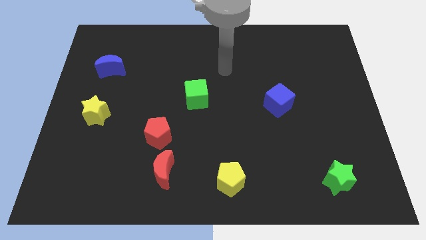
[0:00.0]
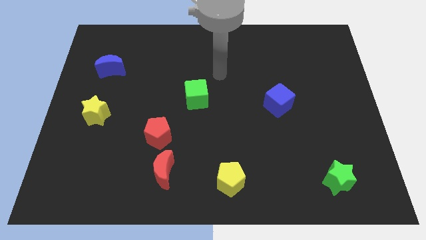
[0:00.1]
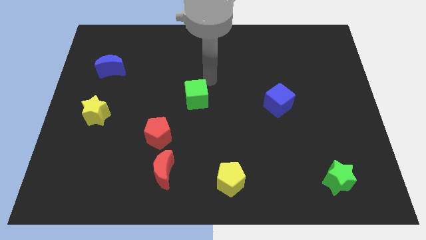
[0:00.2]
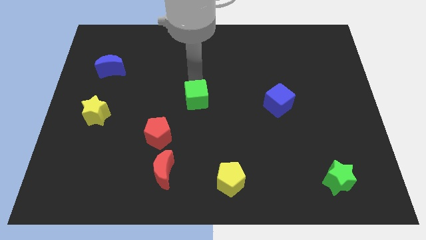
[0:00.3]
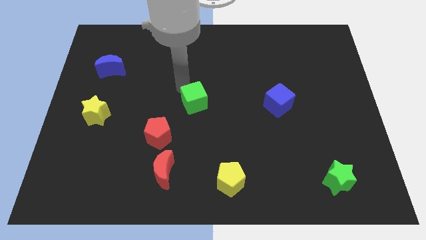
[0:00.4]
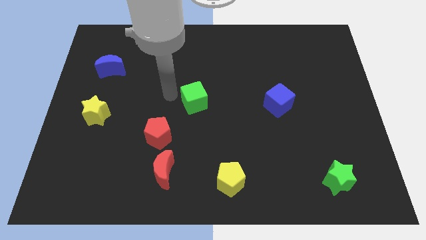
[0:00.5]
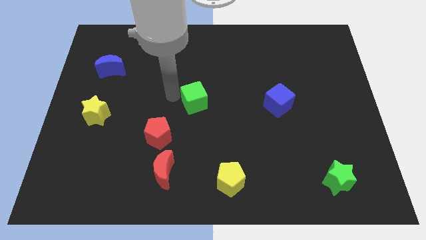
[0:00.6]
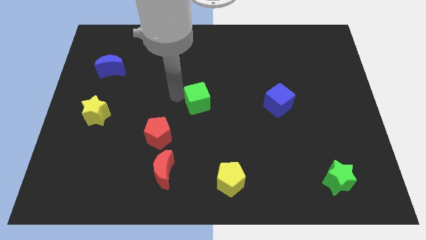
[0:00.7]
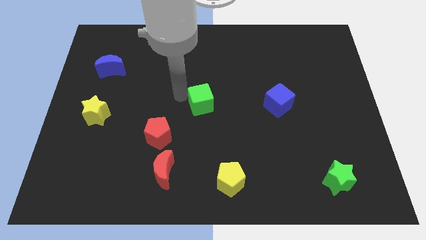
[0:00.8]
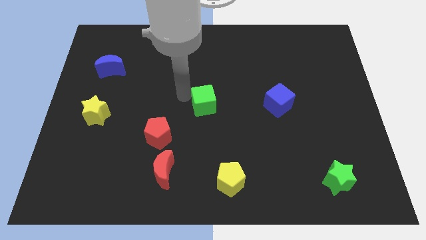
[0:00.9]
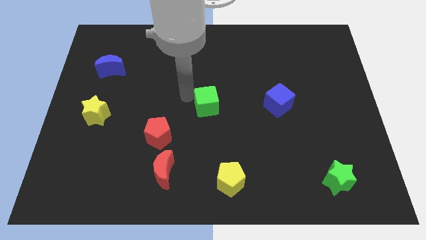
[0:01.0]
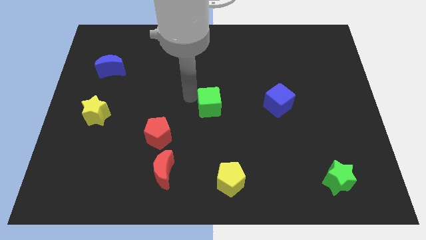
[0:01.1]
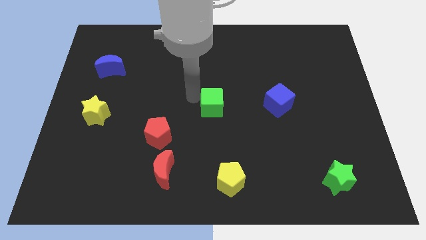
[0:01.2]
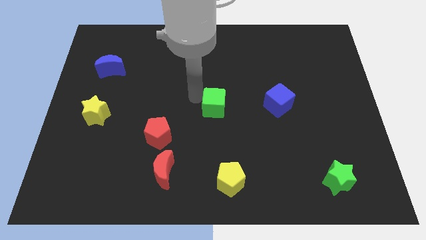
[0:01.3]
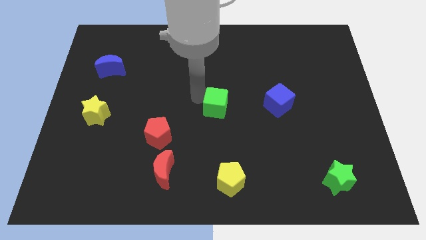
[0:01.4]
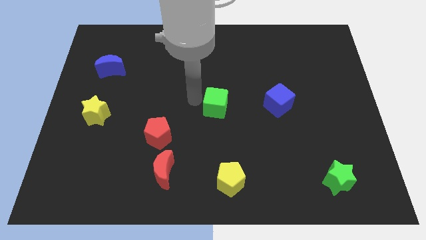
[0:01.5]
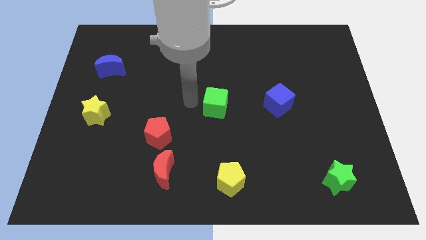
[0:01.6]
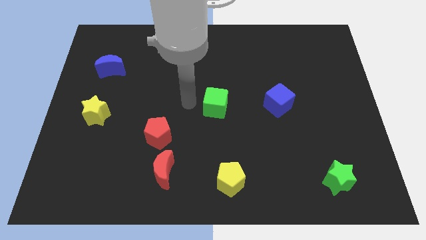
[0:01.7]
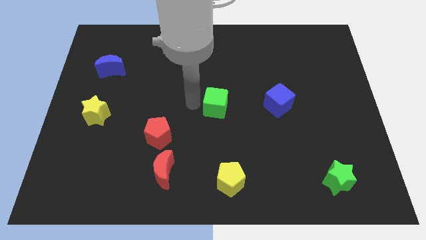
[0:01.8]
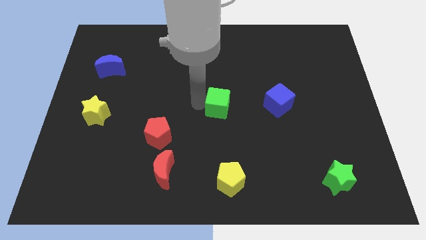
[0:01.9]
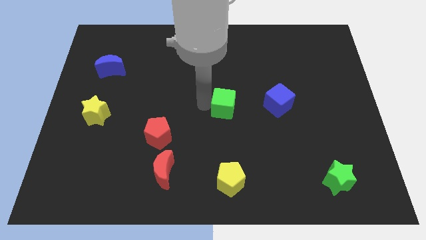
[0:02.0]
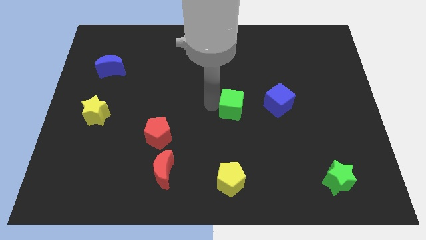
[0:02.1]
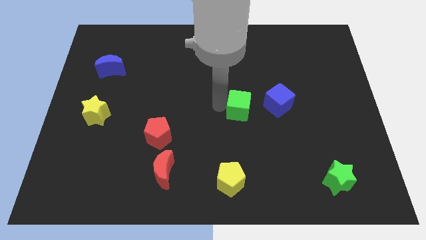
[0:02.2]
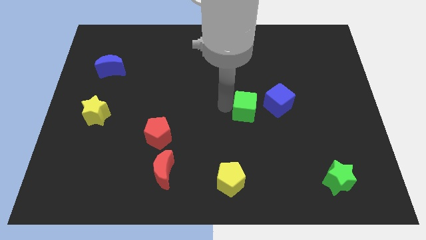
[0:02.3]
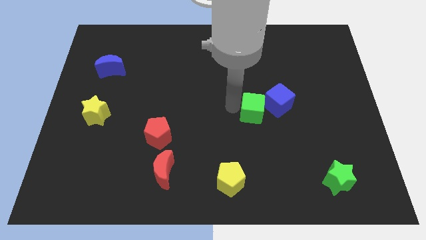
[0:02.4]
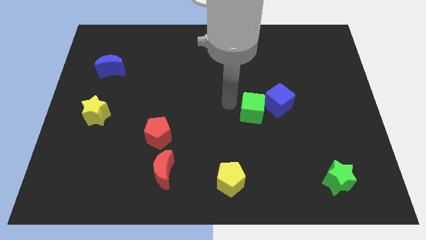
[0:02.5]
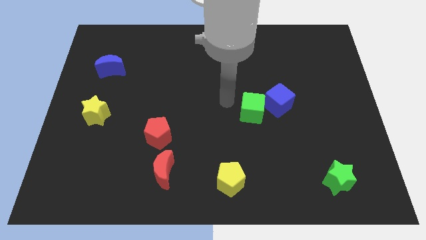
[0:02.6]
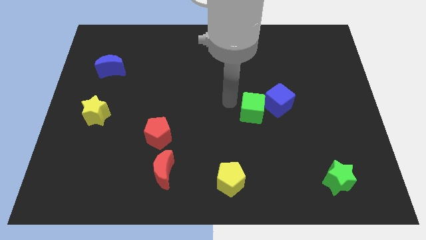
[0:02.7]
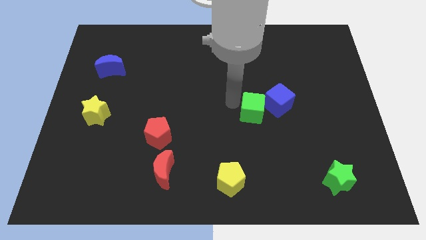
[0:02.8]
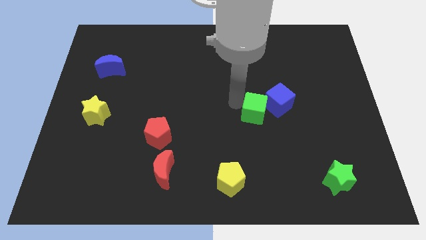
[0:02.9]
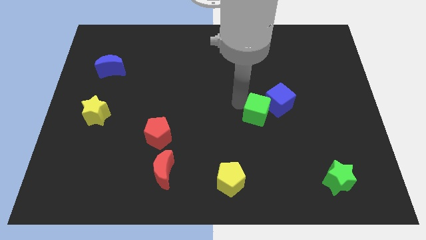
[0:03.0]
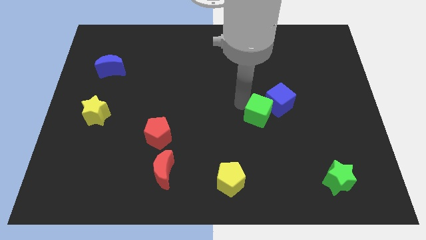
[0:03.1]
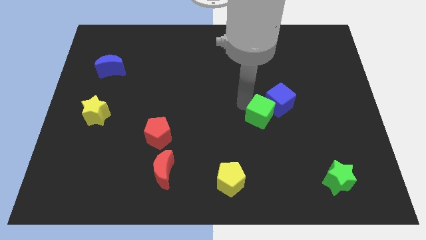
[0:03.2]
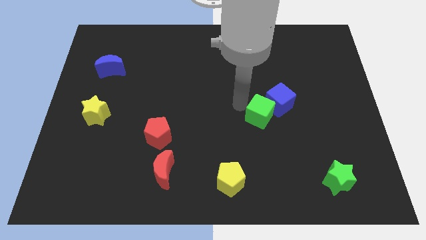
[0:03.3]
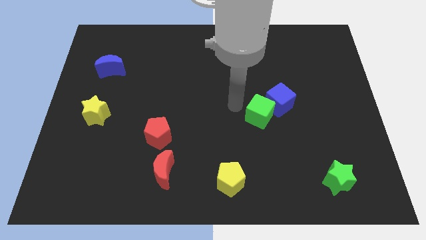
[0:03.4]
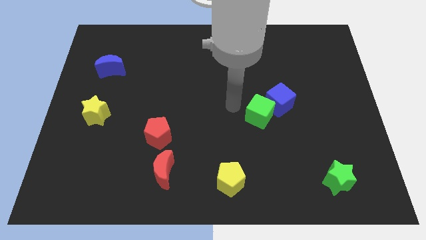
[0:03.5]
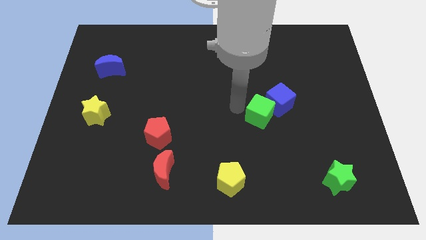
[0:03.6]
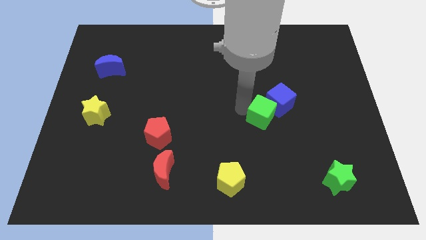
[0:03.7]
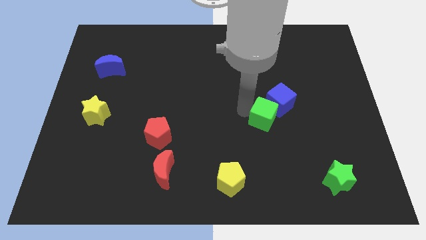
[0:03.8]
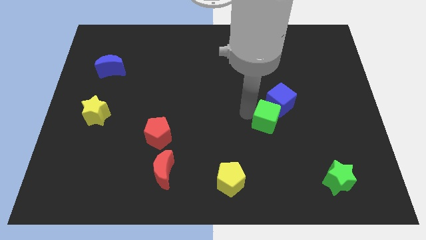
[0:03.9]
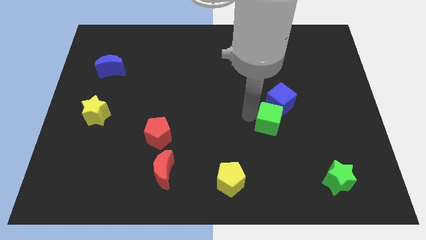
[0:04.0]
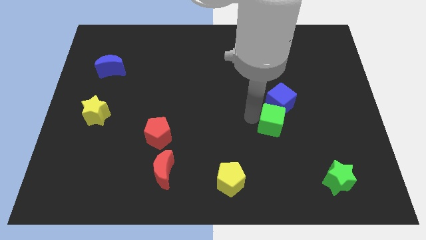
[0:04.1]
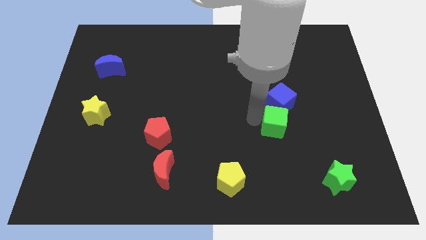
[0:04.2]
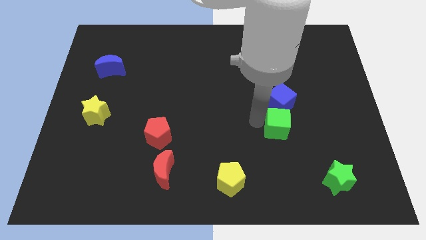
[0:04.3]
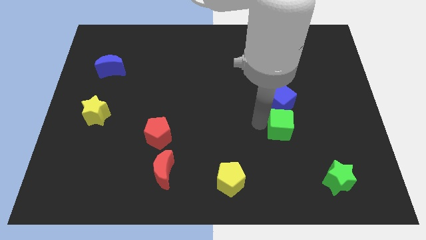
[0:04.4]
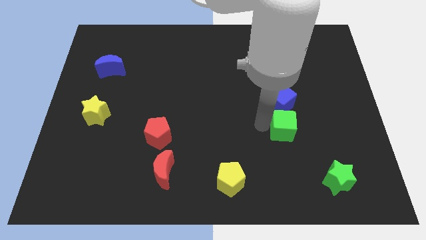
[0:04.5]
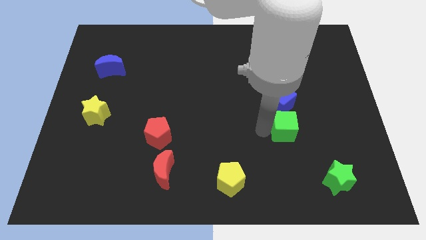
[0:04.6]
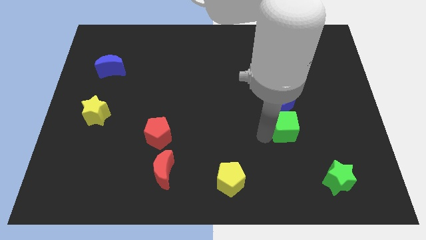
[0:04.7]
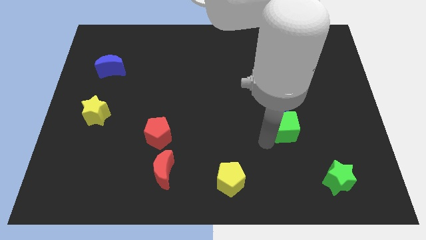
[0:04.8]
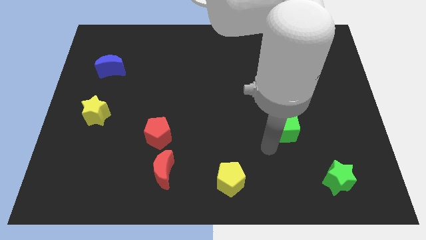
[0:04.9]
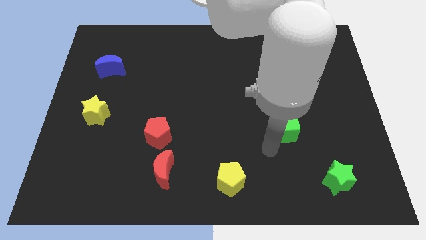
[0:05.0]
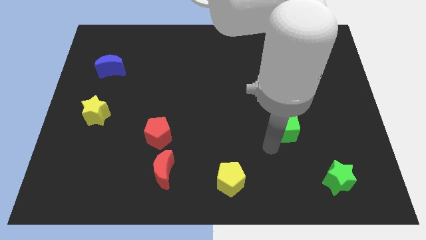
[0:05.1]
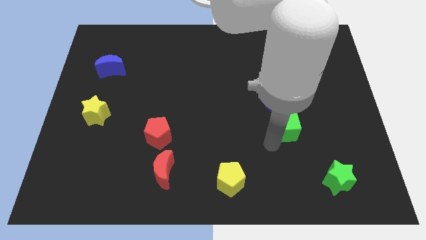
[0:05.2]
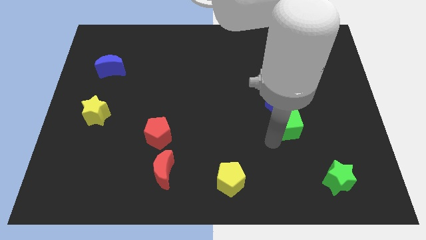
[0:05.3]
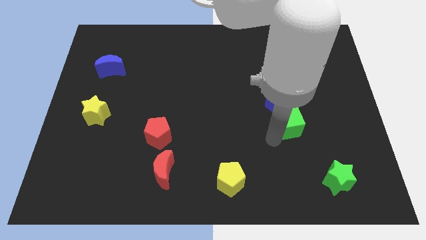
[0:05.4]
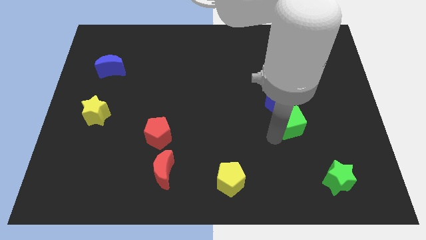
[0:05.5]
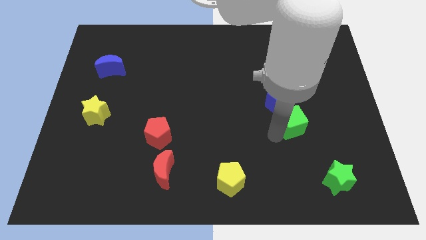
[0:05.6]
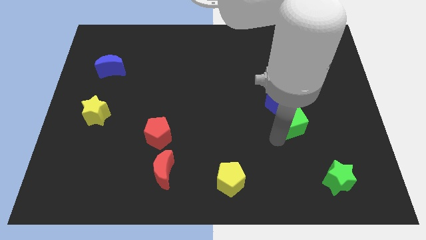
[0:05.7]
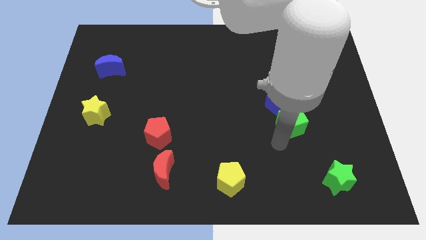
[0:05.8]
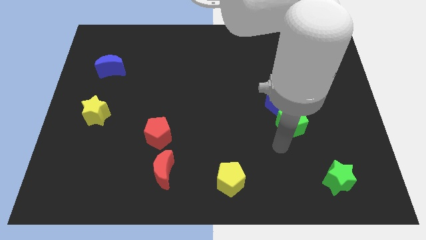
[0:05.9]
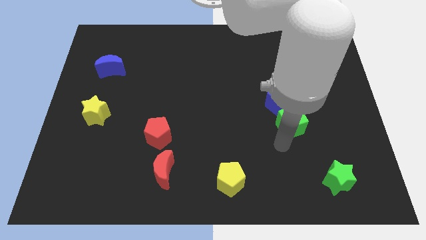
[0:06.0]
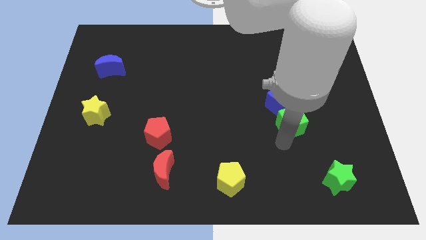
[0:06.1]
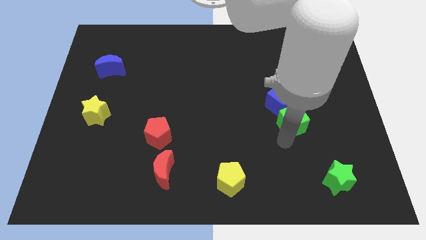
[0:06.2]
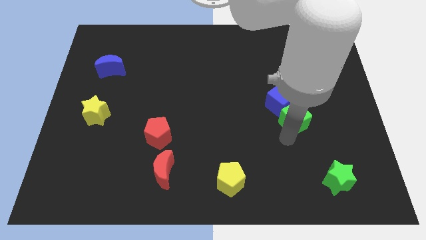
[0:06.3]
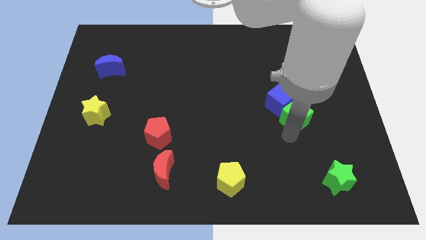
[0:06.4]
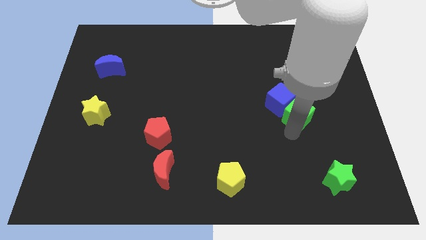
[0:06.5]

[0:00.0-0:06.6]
put the green cube to the right of the blue cube

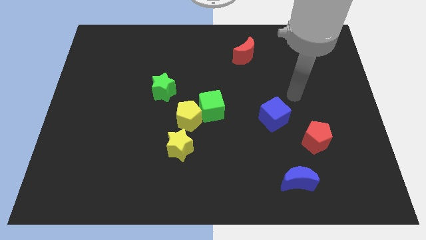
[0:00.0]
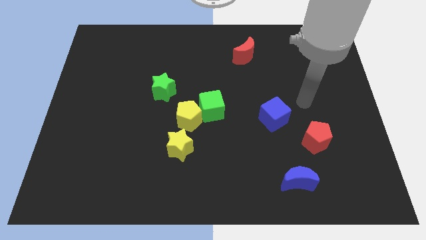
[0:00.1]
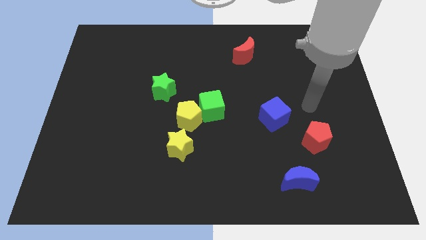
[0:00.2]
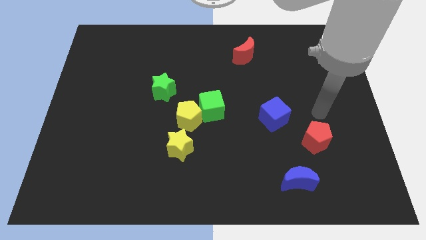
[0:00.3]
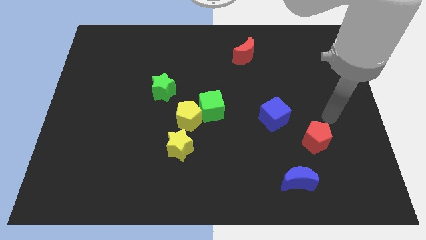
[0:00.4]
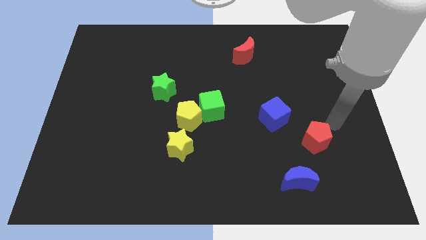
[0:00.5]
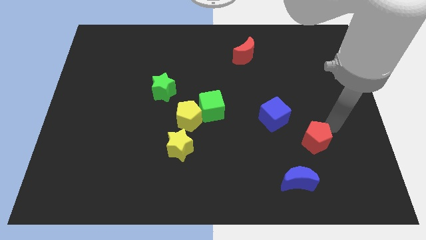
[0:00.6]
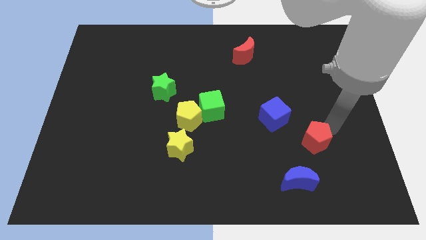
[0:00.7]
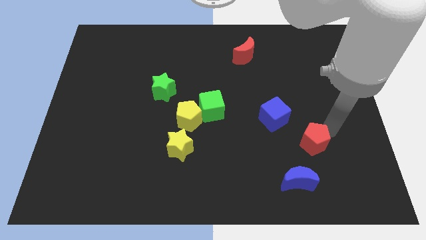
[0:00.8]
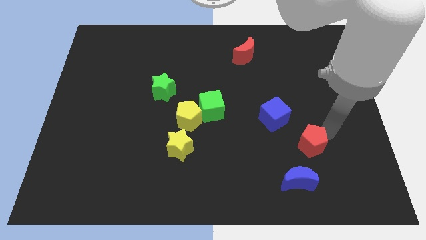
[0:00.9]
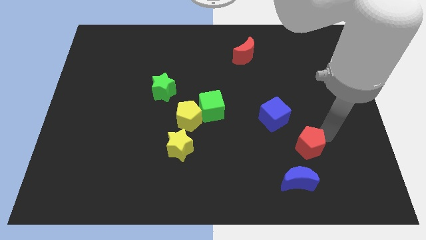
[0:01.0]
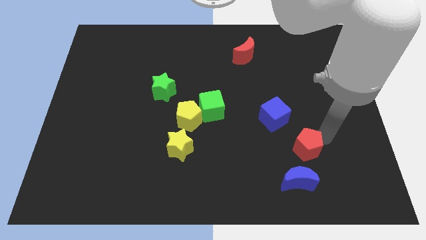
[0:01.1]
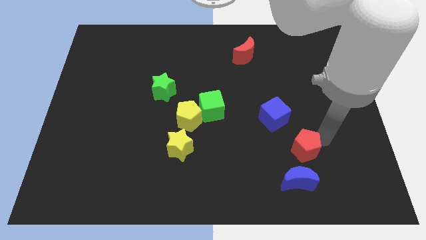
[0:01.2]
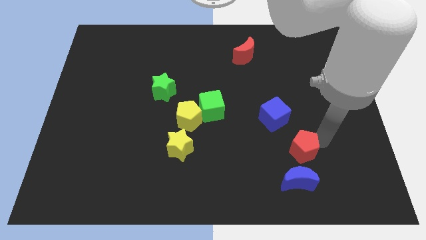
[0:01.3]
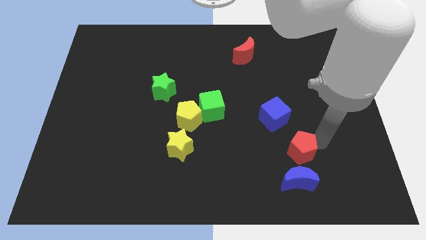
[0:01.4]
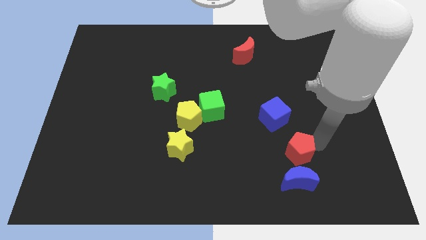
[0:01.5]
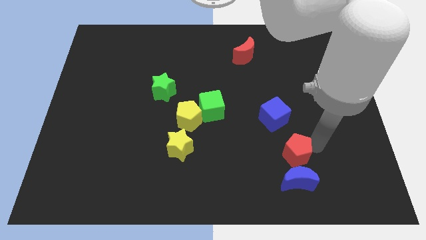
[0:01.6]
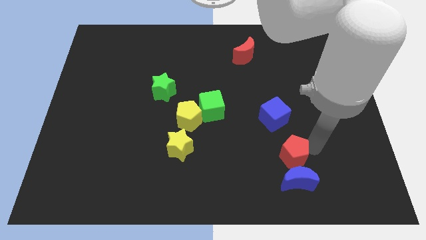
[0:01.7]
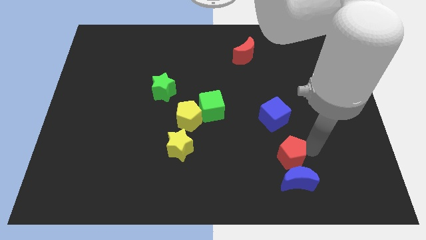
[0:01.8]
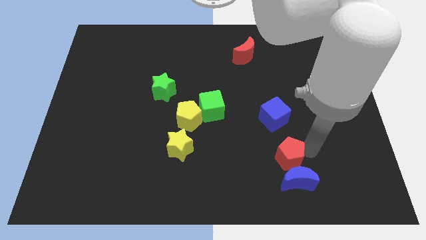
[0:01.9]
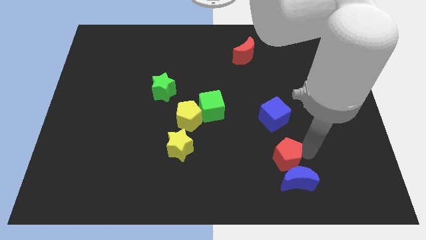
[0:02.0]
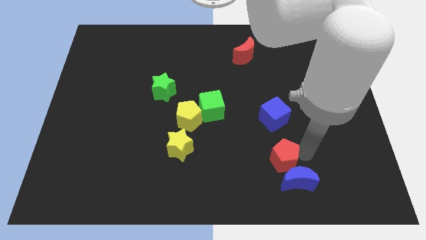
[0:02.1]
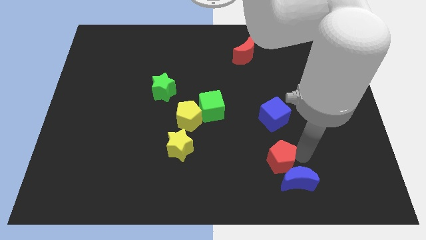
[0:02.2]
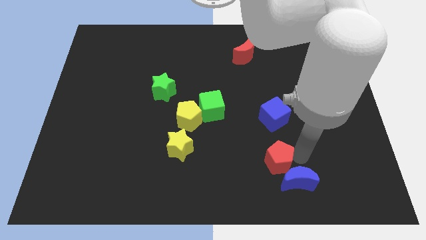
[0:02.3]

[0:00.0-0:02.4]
slide the red pentagon to the left of the blue moon
